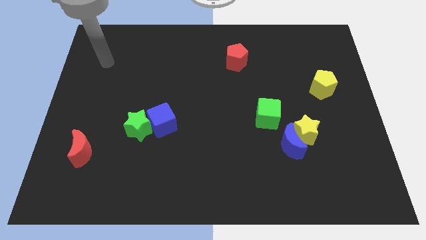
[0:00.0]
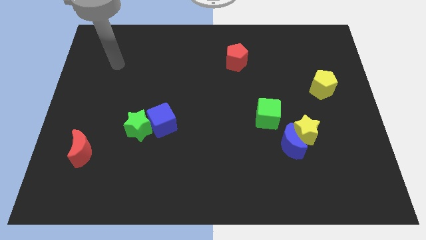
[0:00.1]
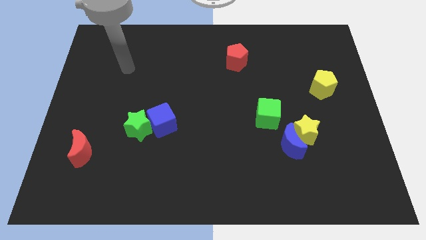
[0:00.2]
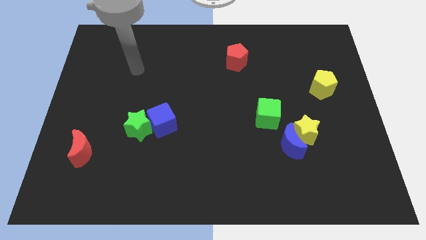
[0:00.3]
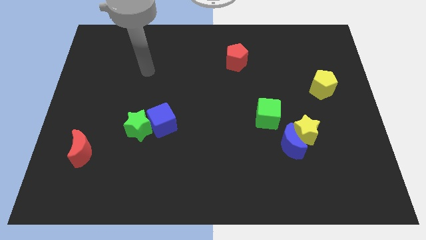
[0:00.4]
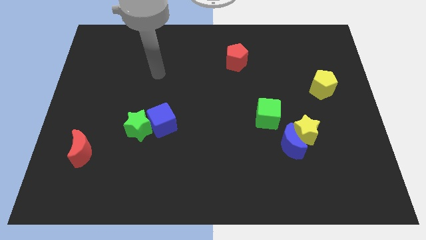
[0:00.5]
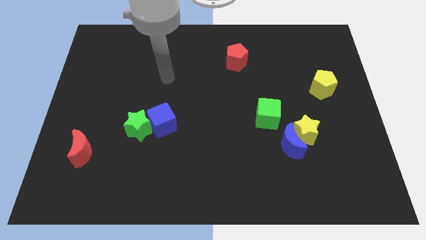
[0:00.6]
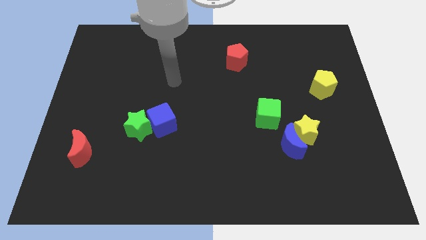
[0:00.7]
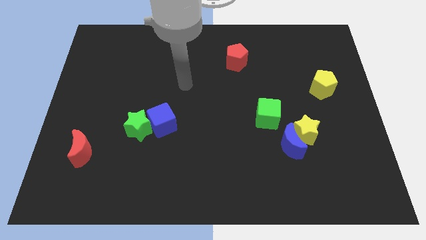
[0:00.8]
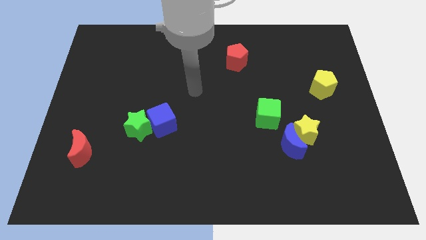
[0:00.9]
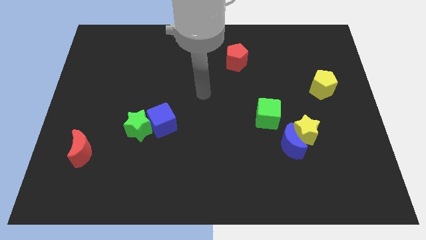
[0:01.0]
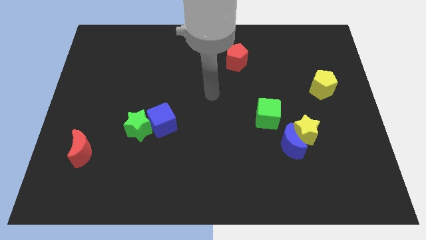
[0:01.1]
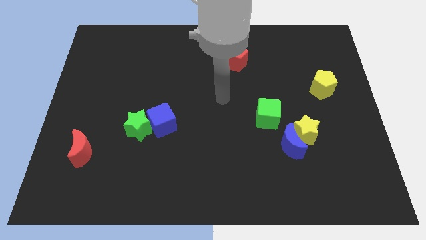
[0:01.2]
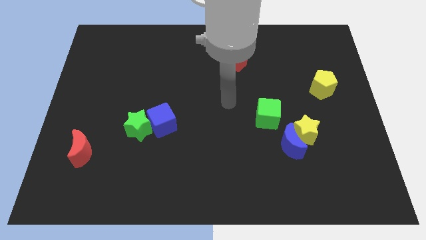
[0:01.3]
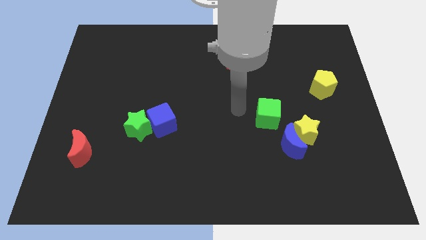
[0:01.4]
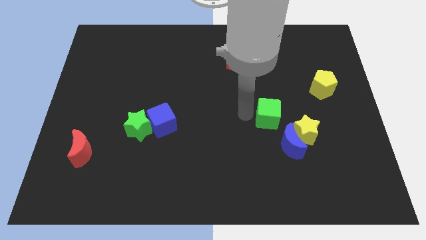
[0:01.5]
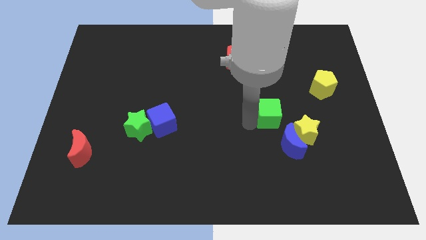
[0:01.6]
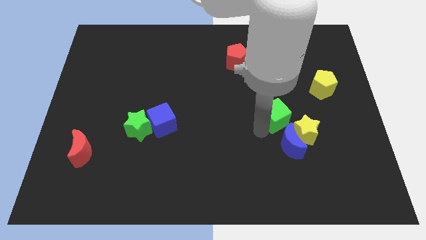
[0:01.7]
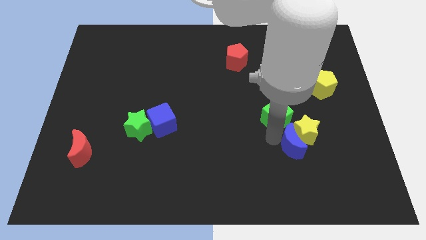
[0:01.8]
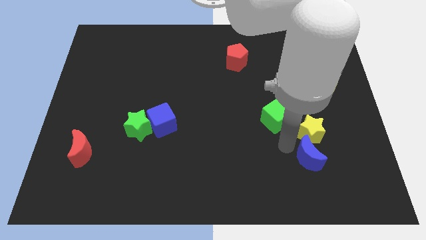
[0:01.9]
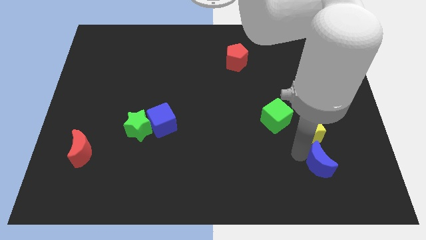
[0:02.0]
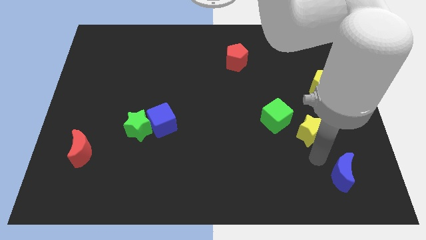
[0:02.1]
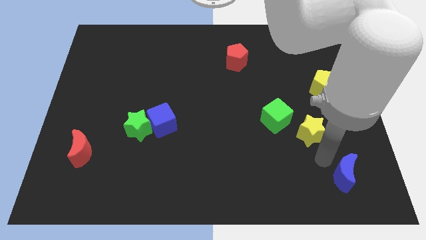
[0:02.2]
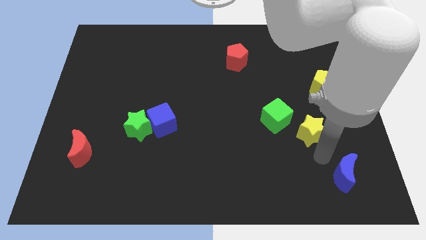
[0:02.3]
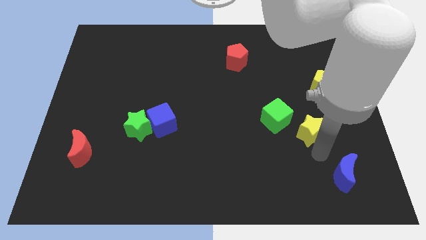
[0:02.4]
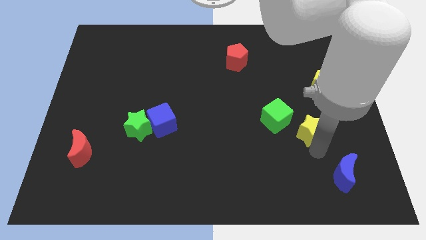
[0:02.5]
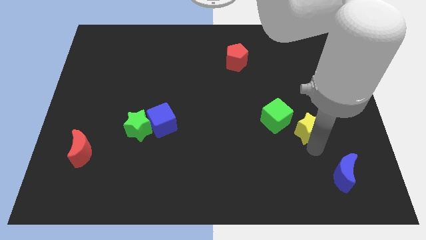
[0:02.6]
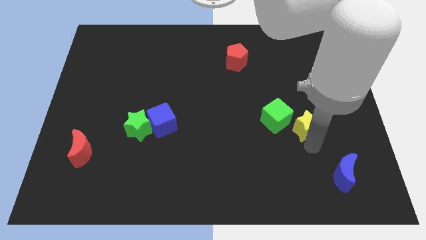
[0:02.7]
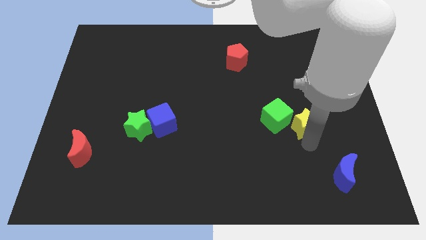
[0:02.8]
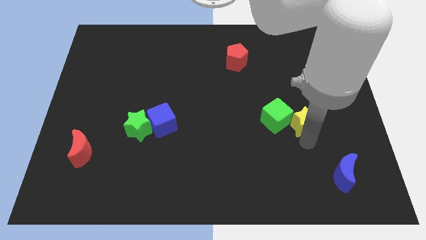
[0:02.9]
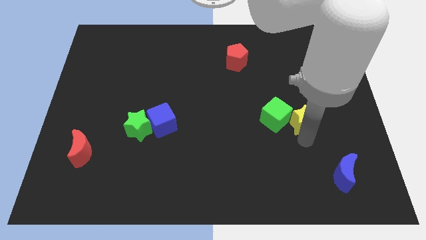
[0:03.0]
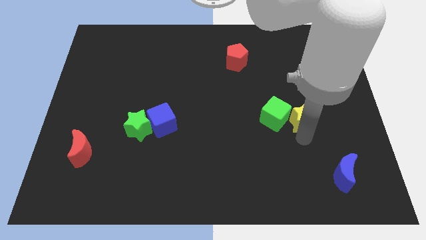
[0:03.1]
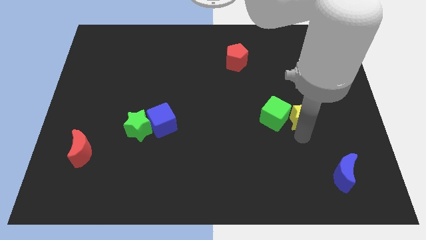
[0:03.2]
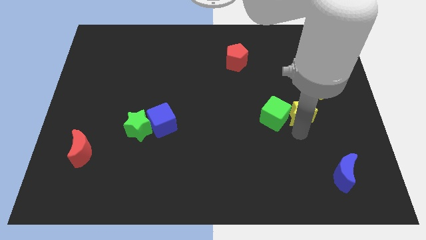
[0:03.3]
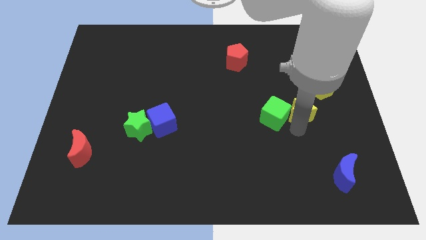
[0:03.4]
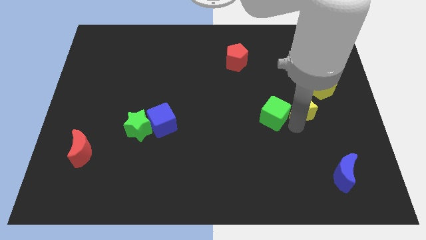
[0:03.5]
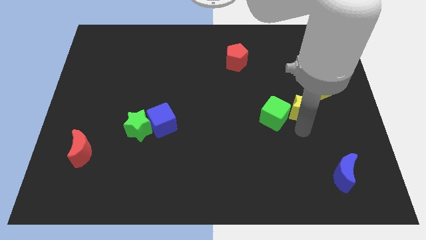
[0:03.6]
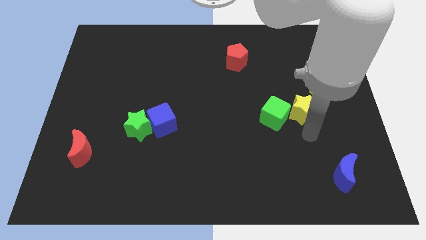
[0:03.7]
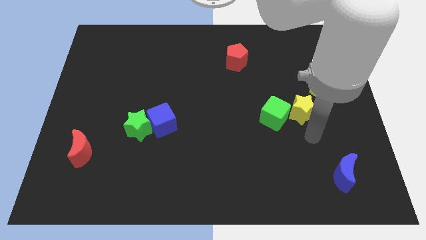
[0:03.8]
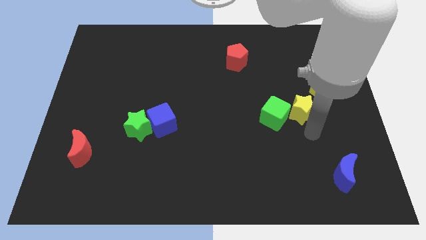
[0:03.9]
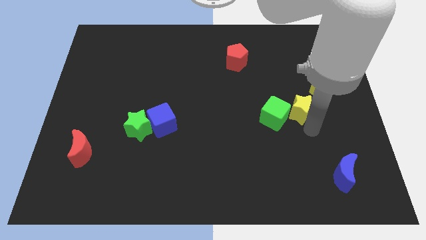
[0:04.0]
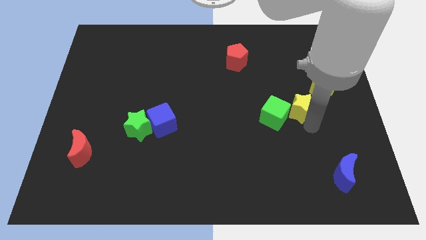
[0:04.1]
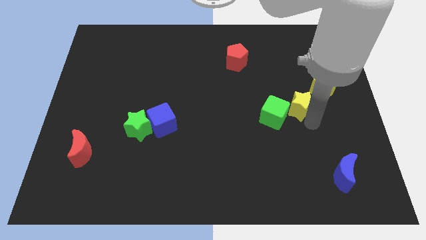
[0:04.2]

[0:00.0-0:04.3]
push the yellow star upwards slightly

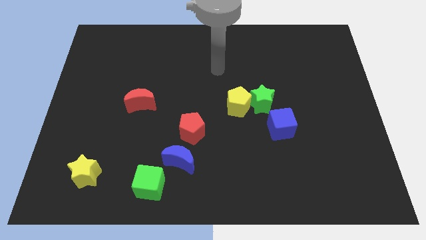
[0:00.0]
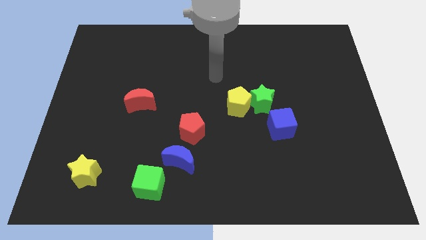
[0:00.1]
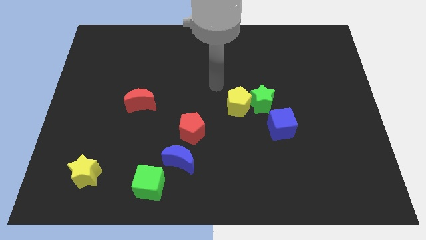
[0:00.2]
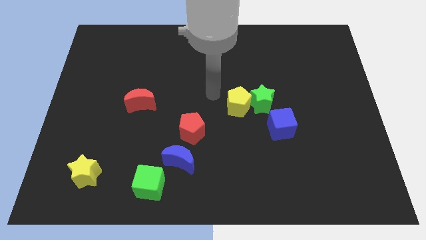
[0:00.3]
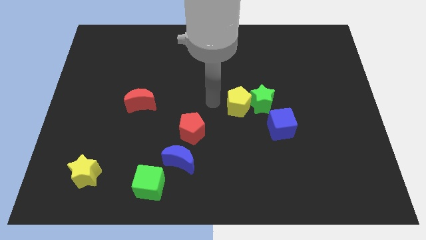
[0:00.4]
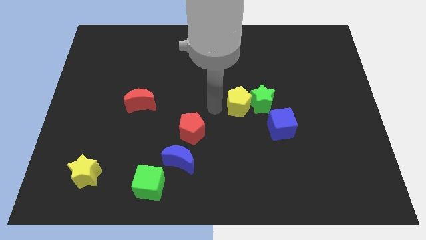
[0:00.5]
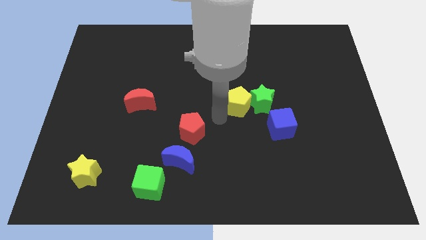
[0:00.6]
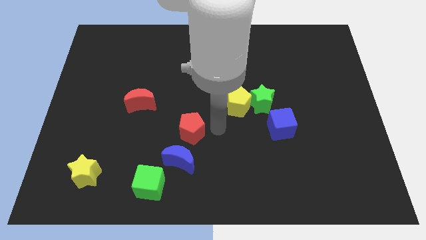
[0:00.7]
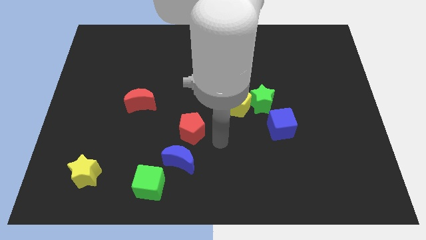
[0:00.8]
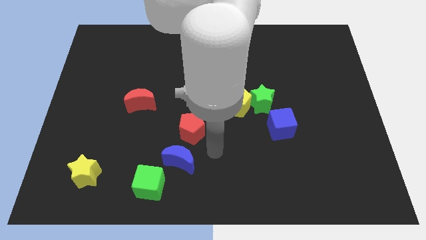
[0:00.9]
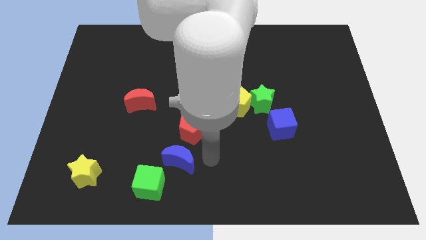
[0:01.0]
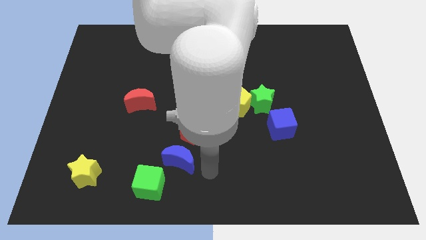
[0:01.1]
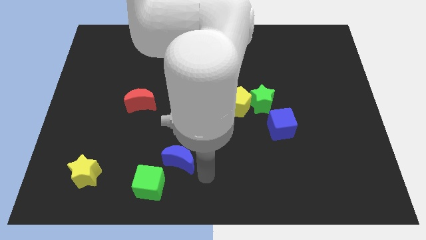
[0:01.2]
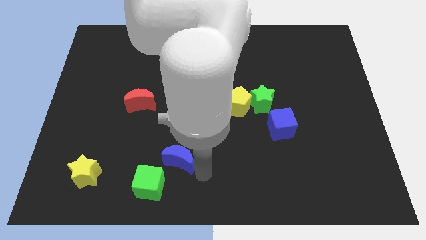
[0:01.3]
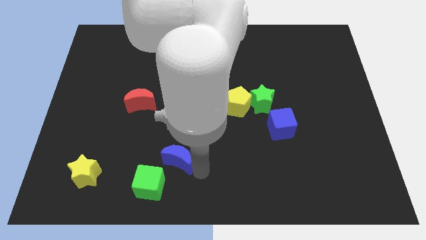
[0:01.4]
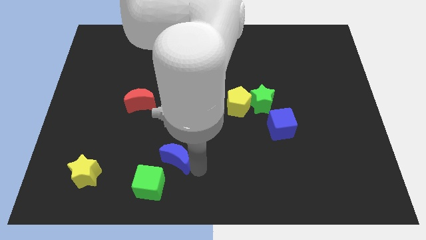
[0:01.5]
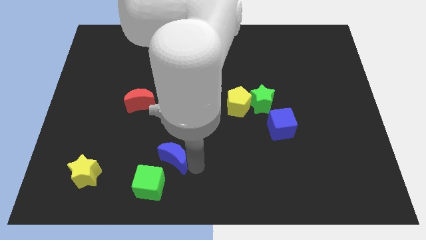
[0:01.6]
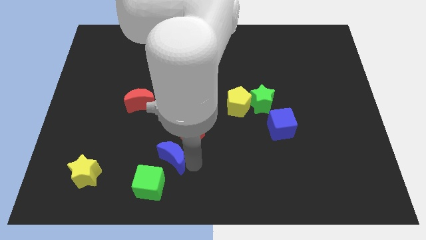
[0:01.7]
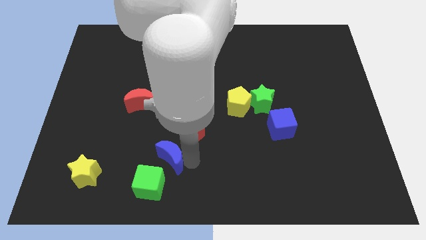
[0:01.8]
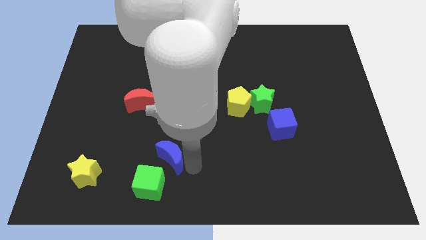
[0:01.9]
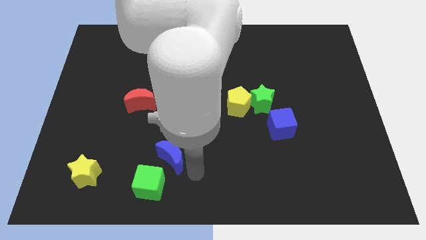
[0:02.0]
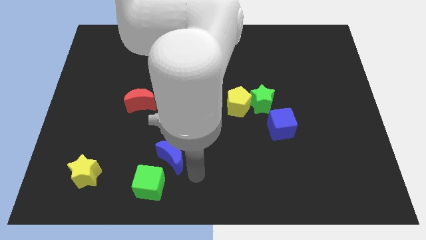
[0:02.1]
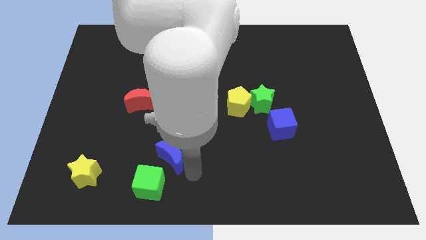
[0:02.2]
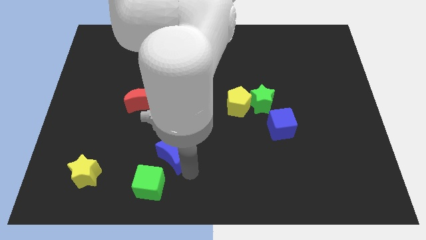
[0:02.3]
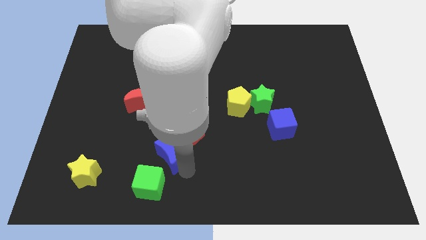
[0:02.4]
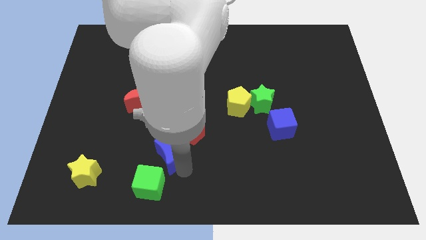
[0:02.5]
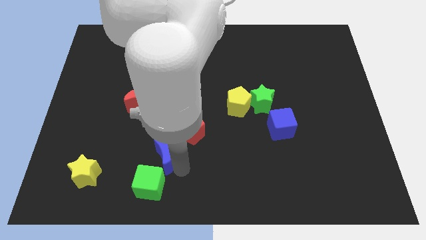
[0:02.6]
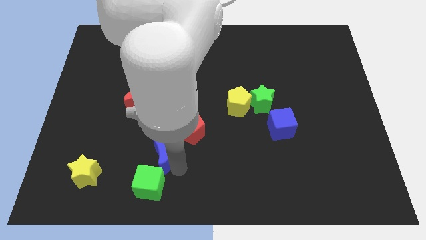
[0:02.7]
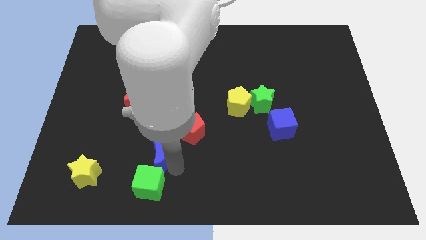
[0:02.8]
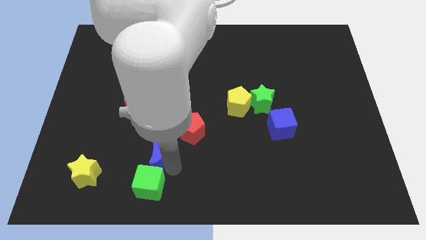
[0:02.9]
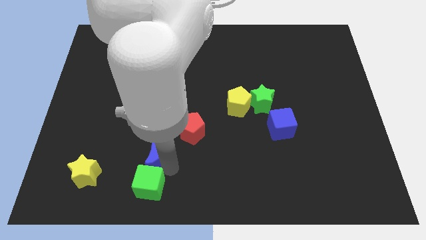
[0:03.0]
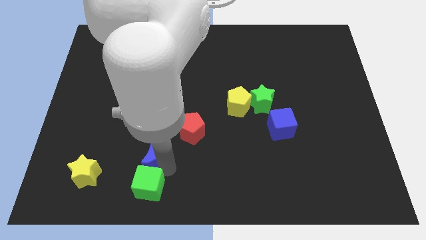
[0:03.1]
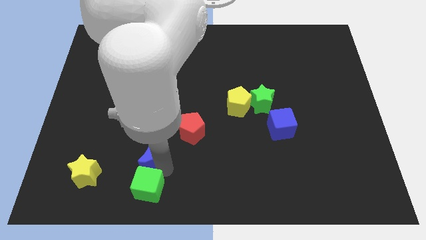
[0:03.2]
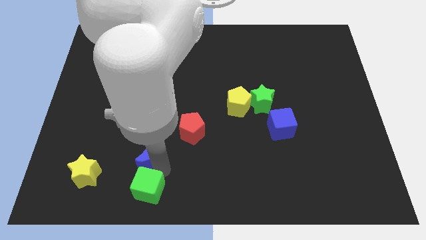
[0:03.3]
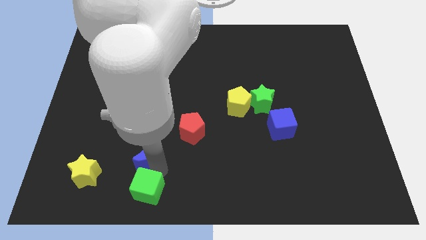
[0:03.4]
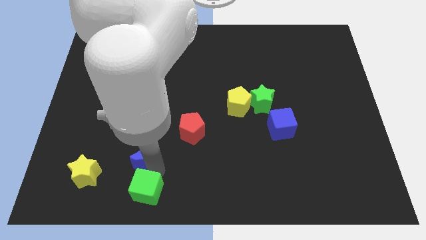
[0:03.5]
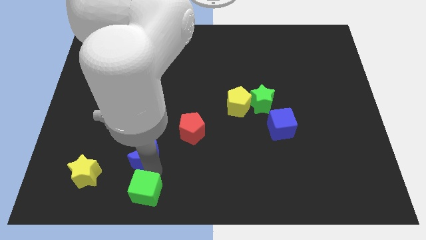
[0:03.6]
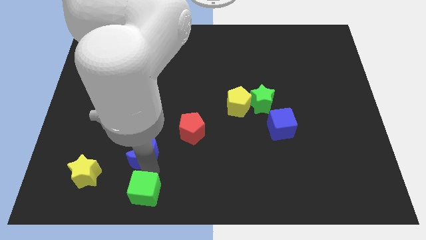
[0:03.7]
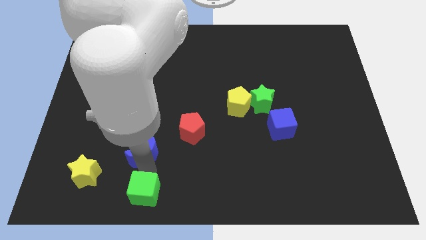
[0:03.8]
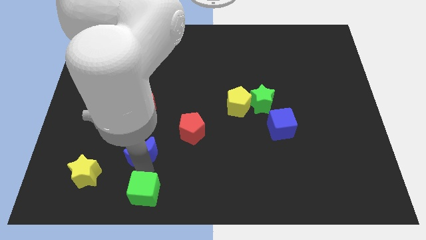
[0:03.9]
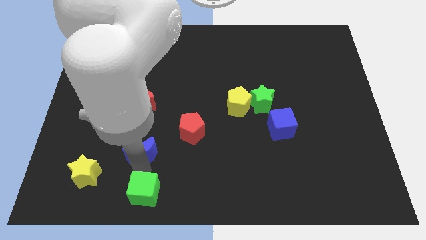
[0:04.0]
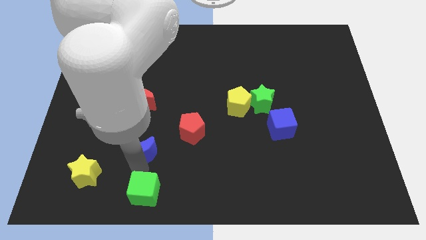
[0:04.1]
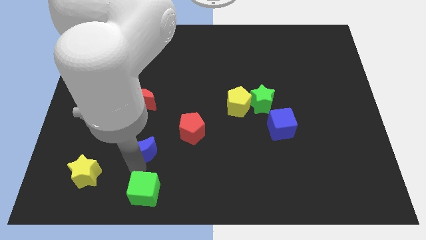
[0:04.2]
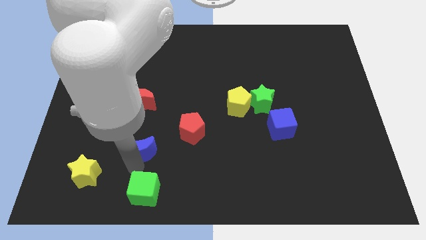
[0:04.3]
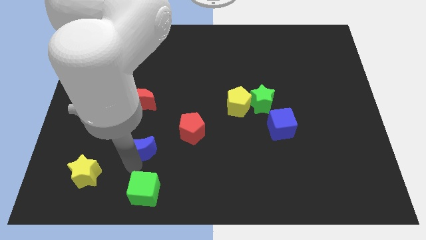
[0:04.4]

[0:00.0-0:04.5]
move the blue moon somewhat upwards and then left
